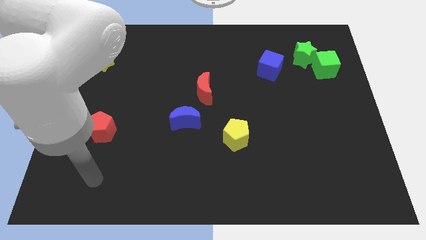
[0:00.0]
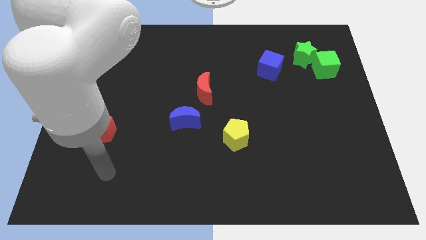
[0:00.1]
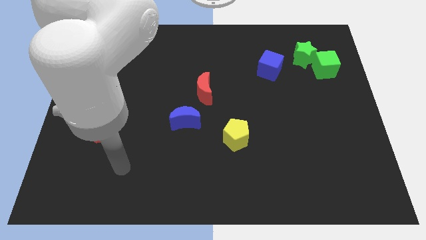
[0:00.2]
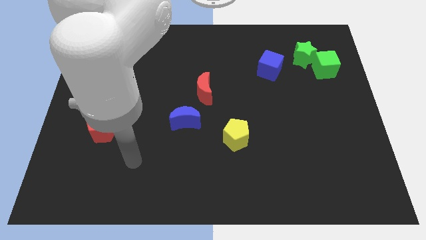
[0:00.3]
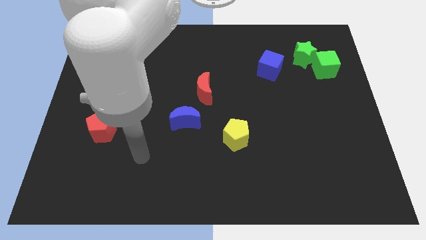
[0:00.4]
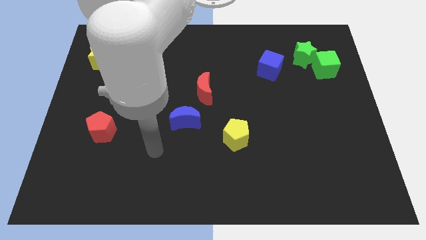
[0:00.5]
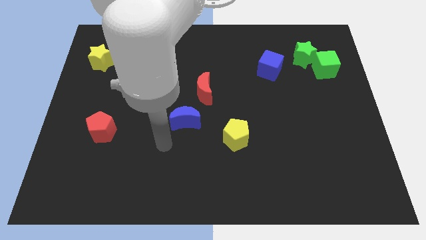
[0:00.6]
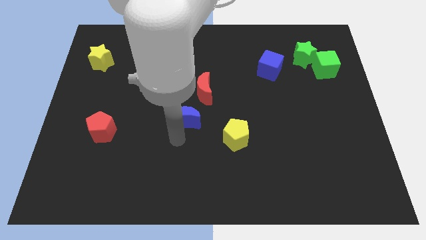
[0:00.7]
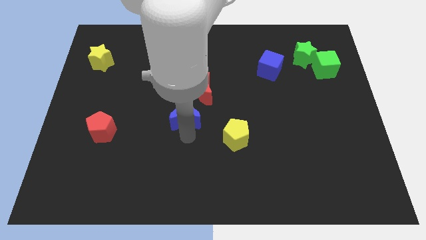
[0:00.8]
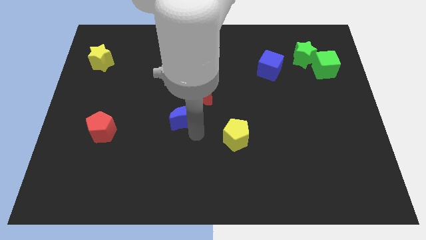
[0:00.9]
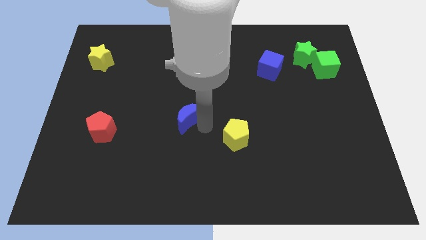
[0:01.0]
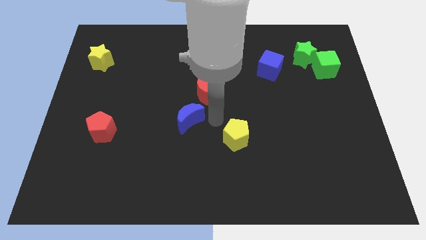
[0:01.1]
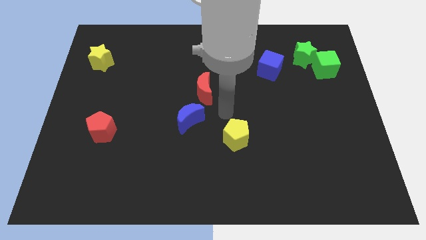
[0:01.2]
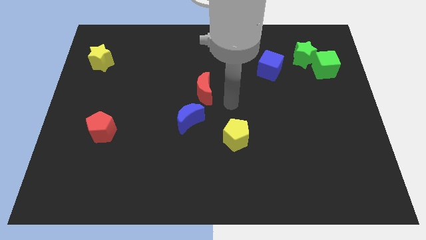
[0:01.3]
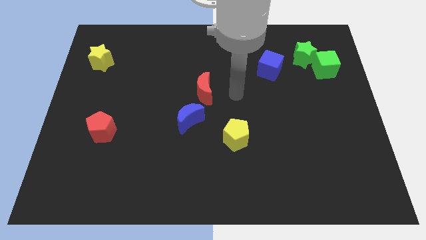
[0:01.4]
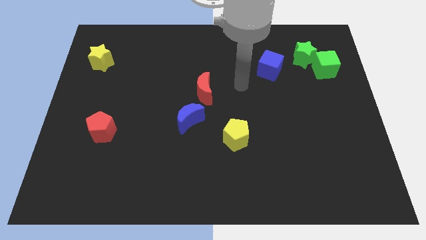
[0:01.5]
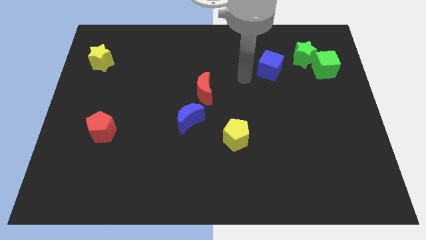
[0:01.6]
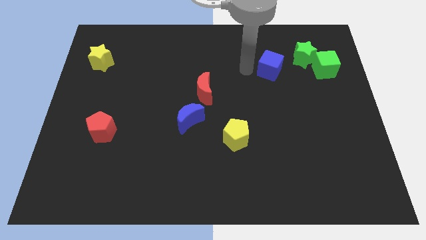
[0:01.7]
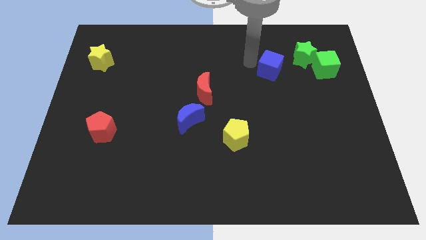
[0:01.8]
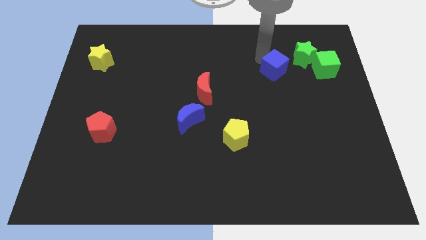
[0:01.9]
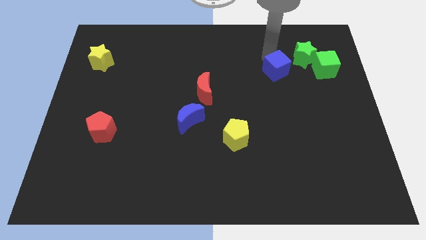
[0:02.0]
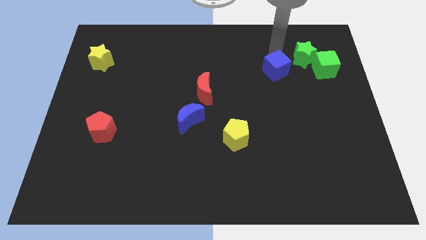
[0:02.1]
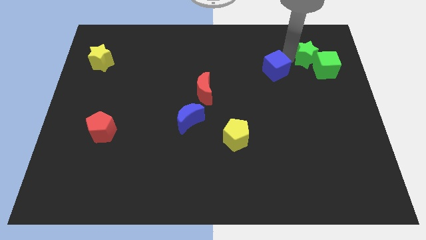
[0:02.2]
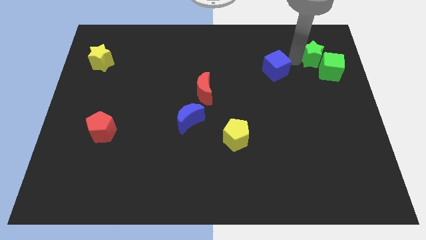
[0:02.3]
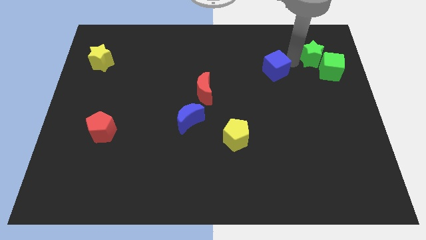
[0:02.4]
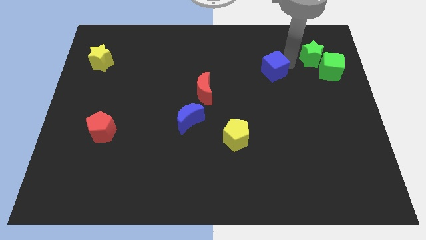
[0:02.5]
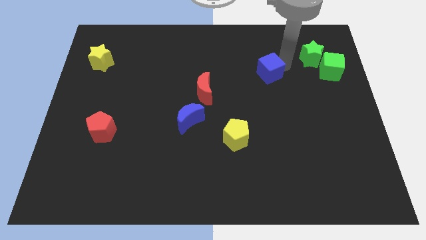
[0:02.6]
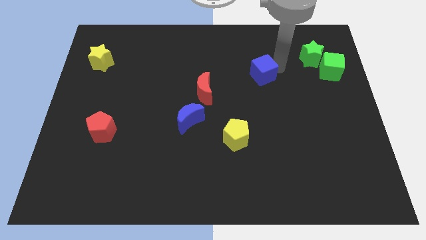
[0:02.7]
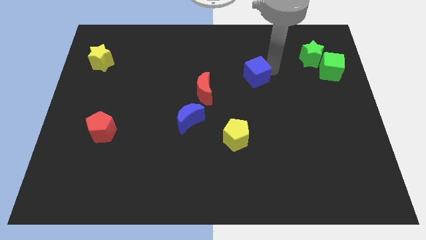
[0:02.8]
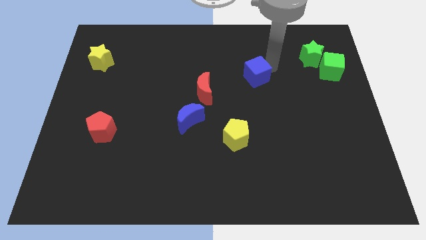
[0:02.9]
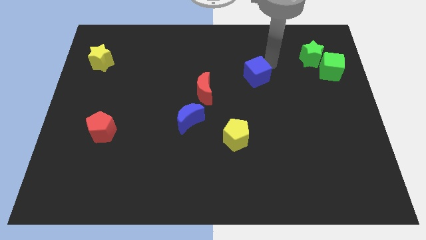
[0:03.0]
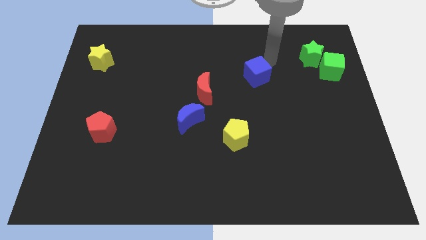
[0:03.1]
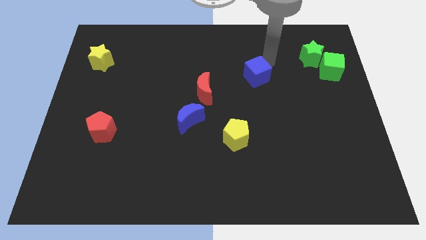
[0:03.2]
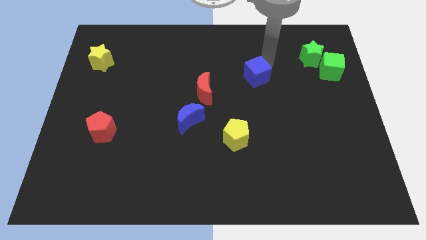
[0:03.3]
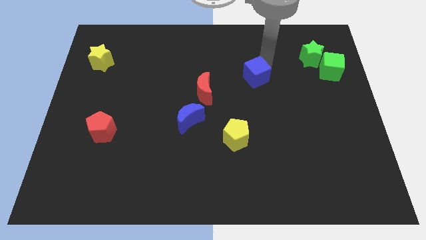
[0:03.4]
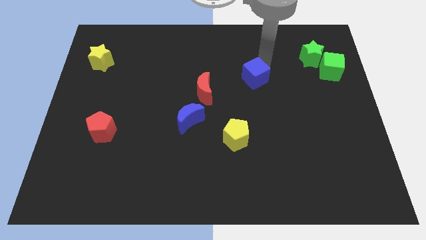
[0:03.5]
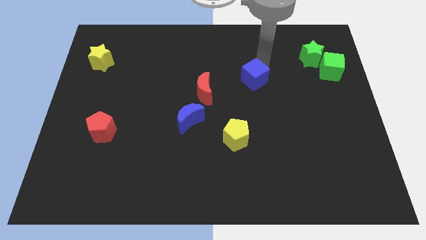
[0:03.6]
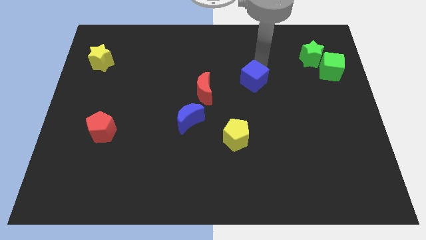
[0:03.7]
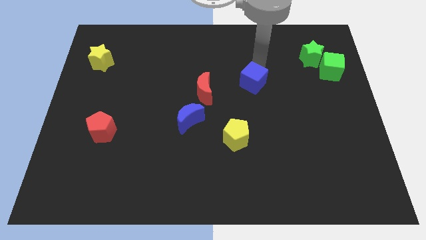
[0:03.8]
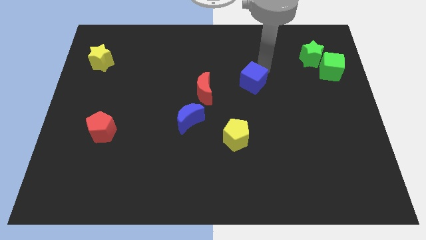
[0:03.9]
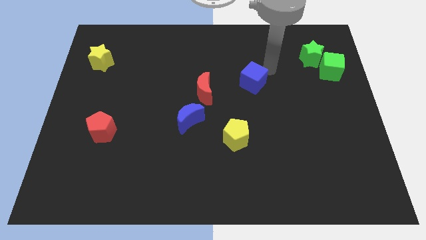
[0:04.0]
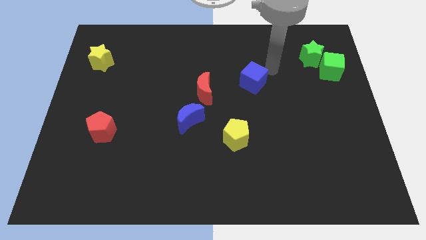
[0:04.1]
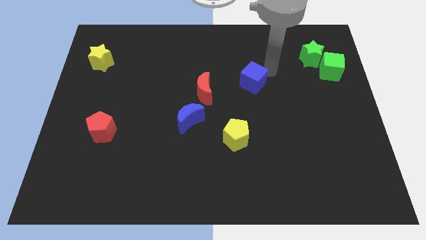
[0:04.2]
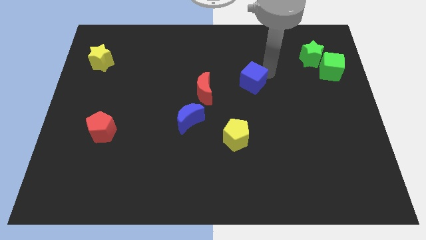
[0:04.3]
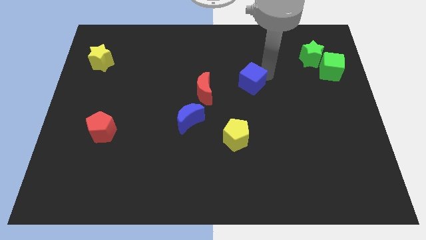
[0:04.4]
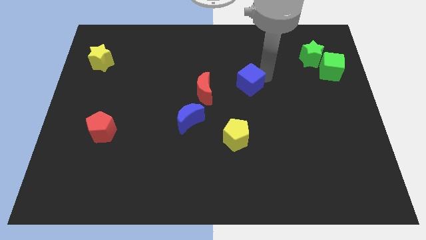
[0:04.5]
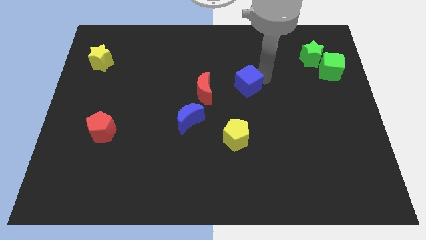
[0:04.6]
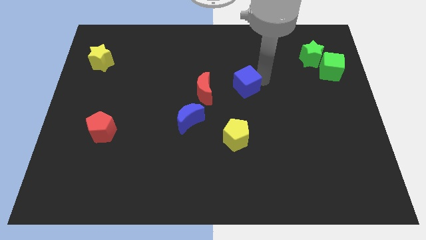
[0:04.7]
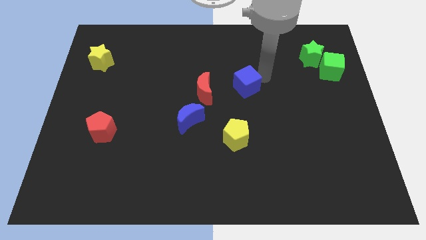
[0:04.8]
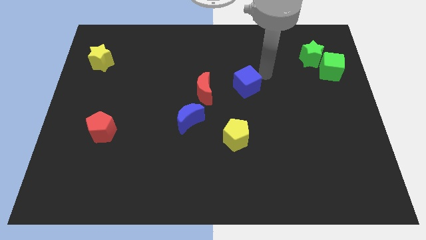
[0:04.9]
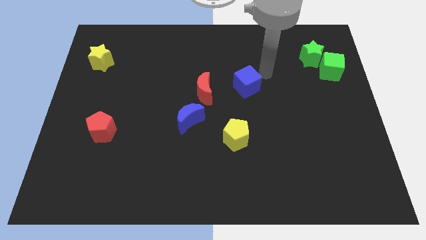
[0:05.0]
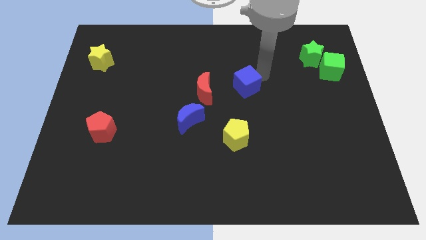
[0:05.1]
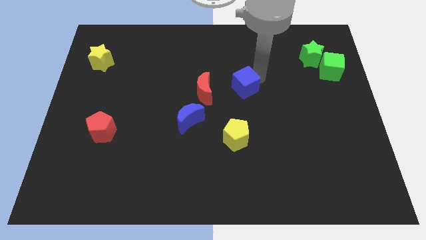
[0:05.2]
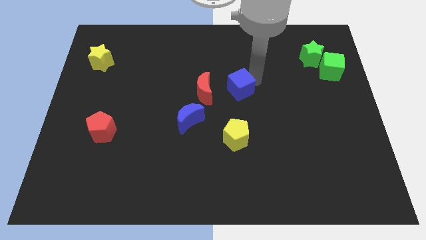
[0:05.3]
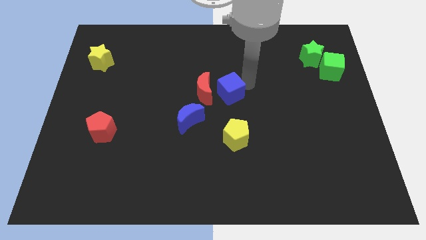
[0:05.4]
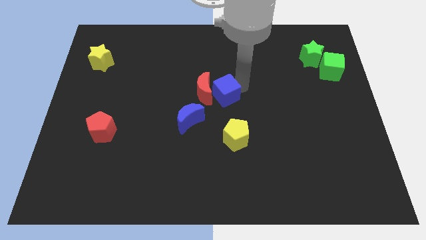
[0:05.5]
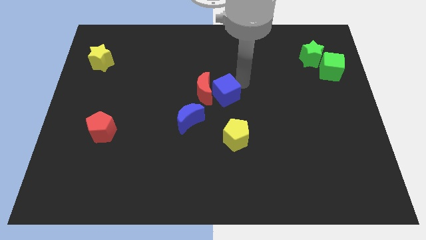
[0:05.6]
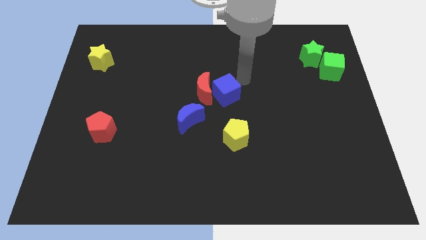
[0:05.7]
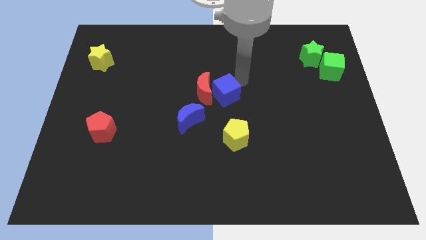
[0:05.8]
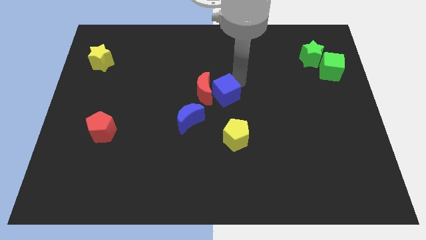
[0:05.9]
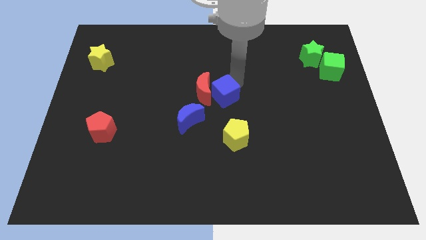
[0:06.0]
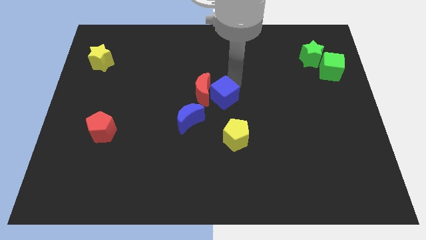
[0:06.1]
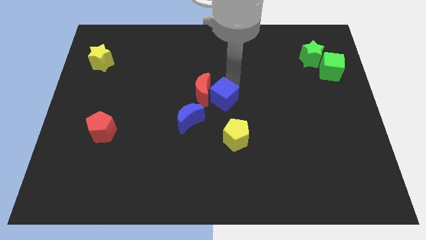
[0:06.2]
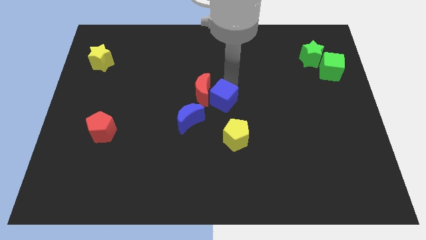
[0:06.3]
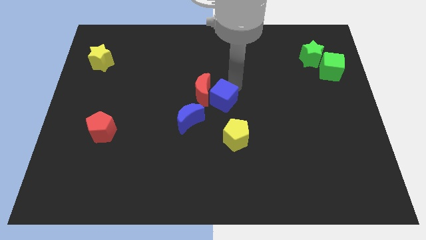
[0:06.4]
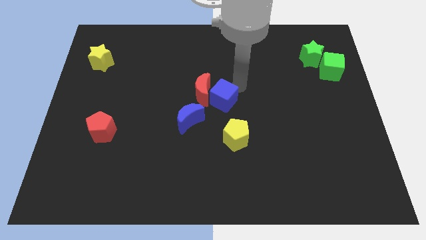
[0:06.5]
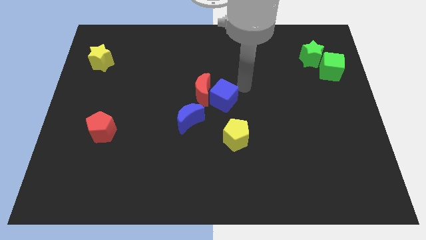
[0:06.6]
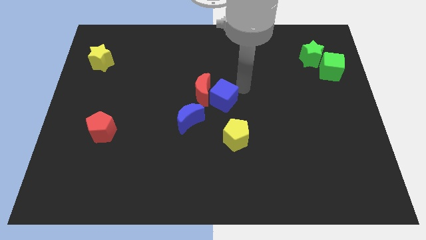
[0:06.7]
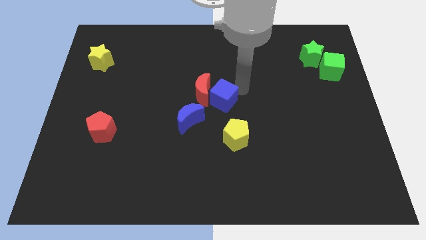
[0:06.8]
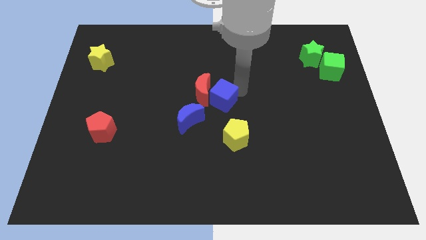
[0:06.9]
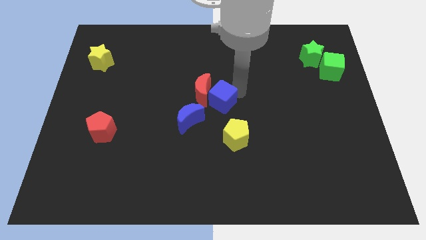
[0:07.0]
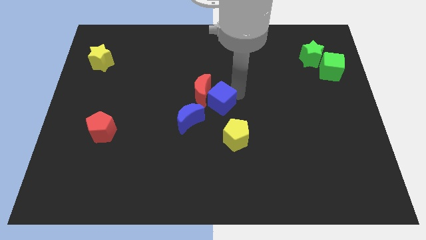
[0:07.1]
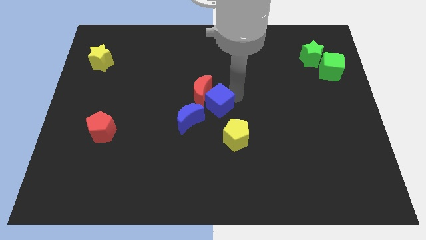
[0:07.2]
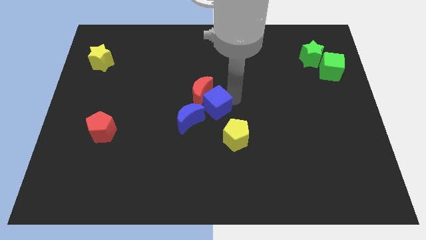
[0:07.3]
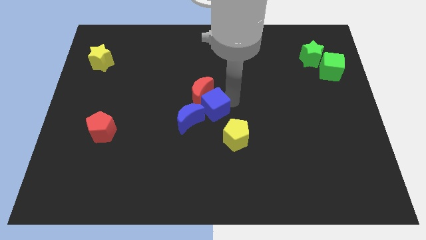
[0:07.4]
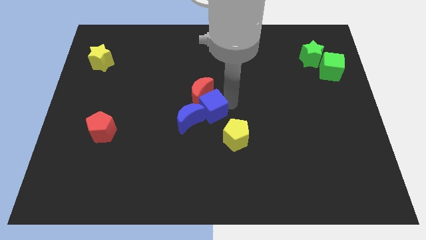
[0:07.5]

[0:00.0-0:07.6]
slide the blue cube next to the blue moon

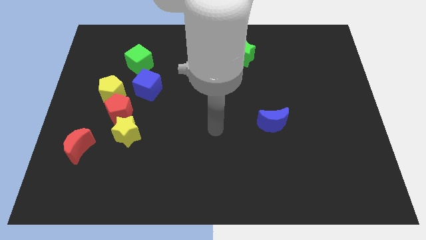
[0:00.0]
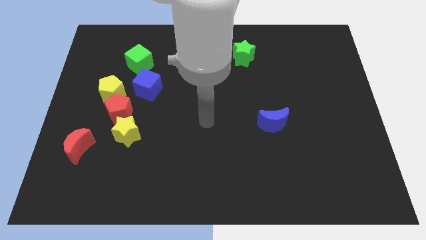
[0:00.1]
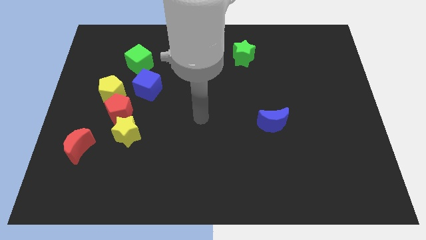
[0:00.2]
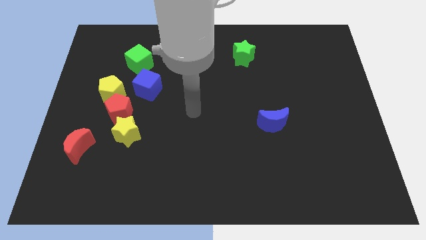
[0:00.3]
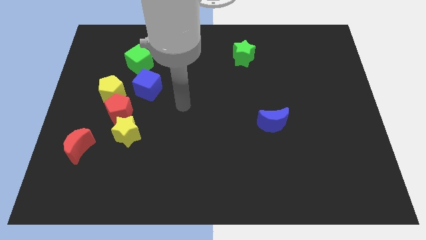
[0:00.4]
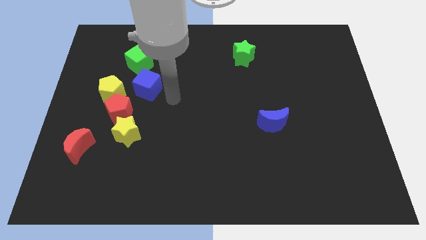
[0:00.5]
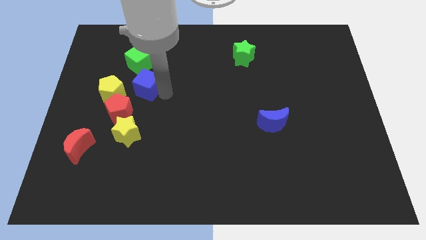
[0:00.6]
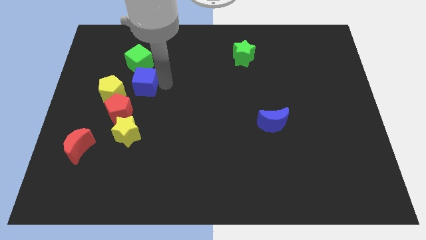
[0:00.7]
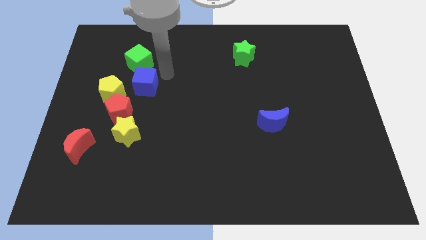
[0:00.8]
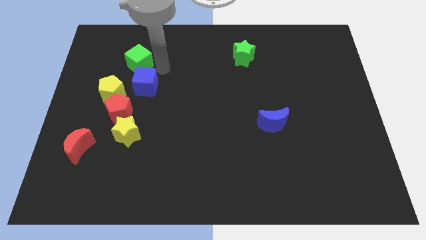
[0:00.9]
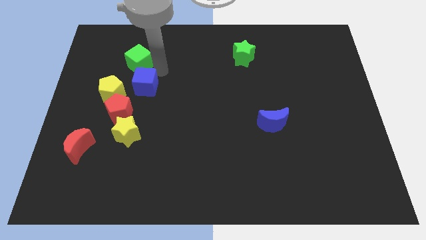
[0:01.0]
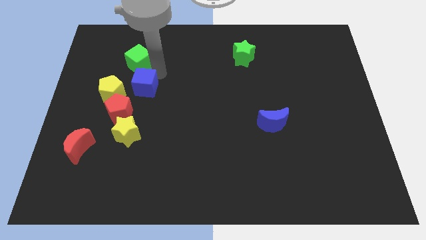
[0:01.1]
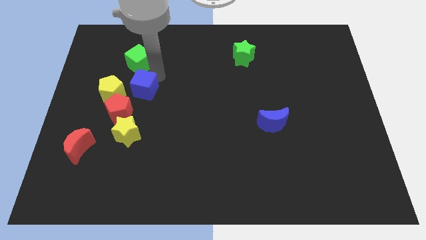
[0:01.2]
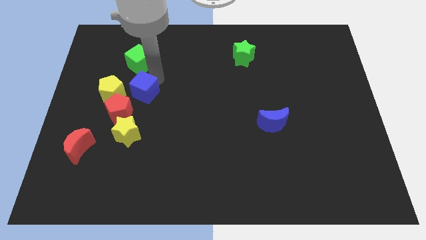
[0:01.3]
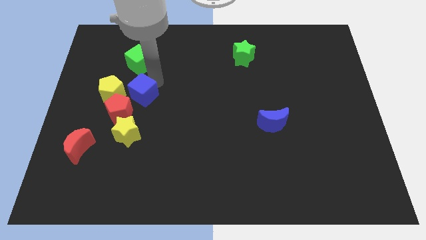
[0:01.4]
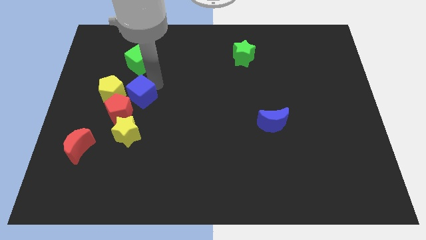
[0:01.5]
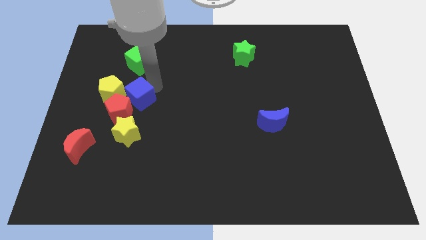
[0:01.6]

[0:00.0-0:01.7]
slide the blue cube next to the red pentagon
